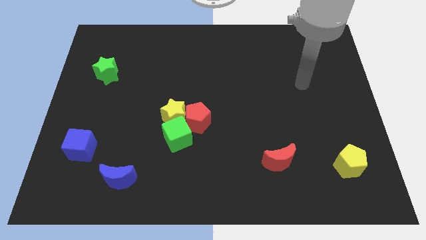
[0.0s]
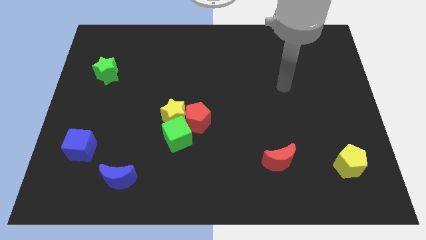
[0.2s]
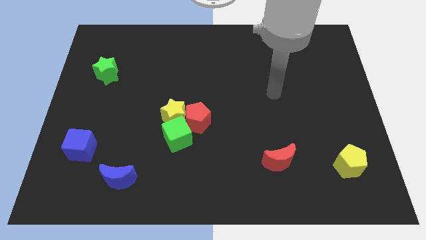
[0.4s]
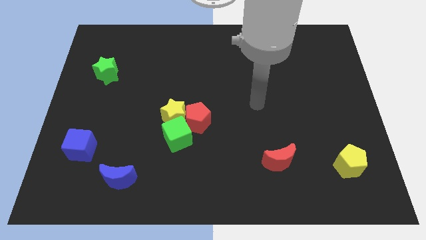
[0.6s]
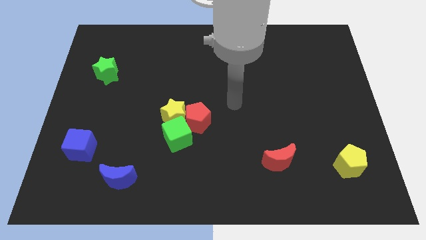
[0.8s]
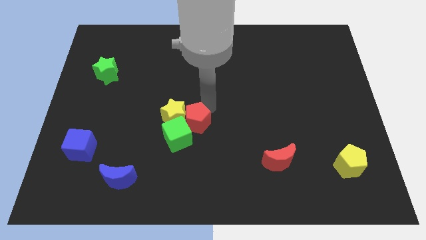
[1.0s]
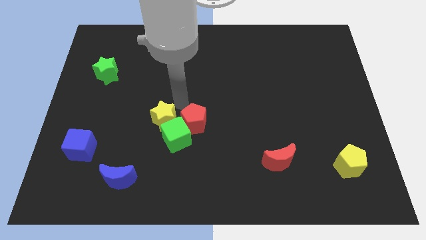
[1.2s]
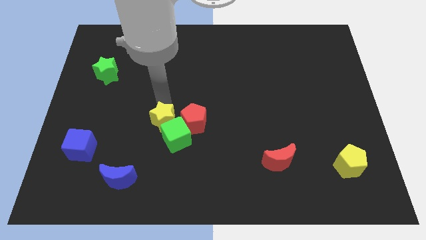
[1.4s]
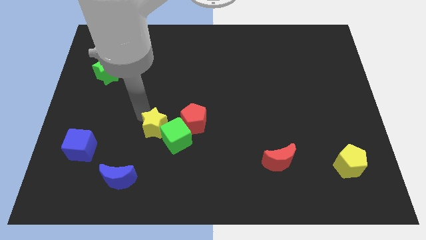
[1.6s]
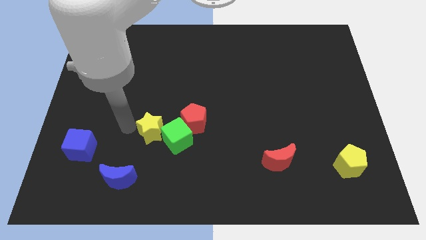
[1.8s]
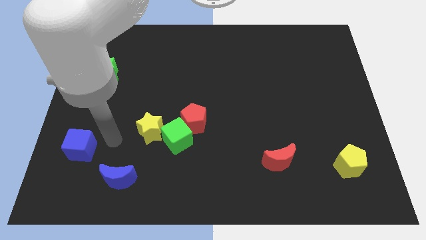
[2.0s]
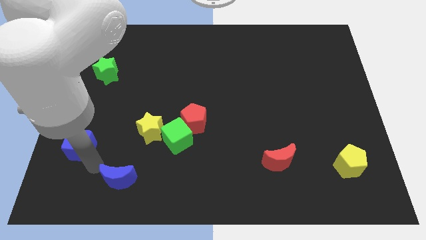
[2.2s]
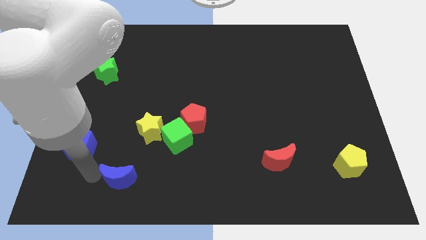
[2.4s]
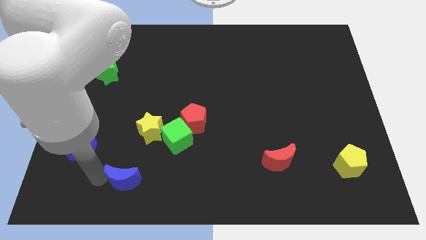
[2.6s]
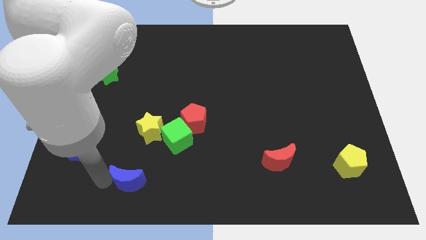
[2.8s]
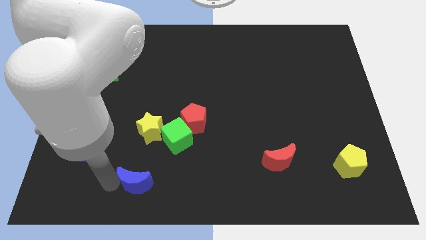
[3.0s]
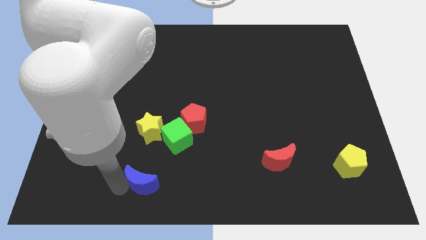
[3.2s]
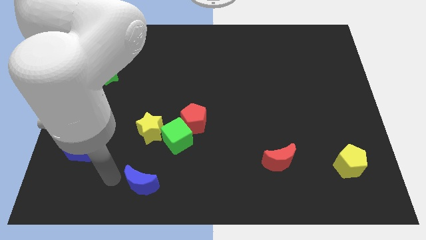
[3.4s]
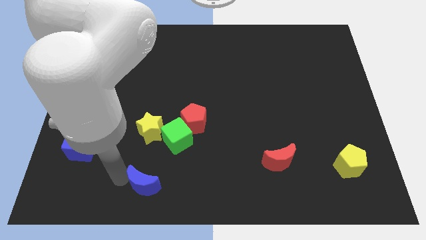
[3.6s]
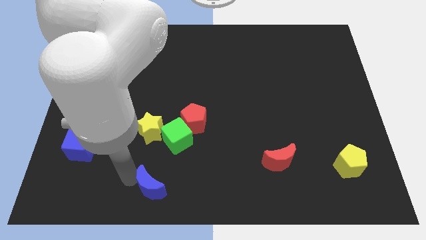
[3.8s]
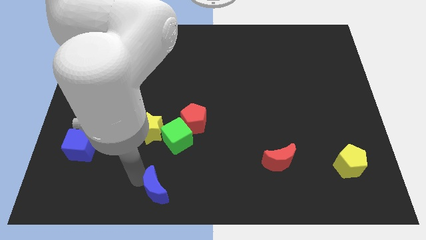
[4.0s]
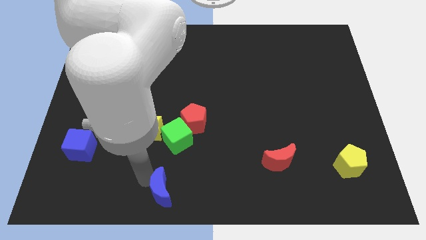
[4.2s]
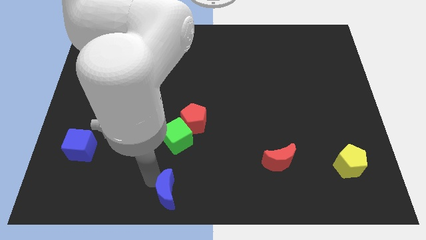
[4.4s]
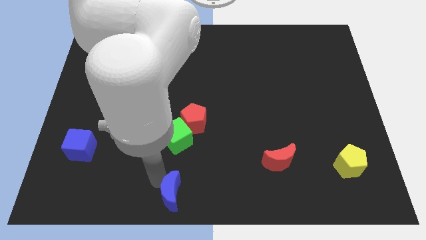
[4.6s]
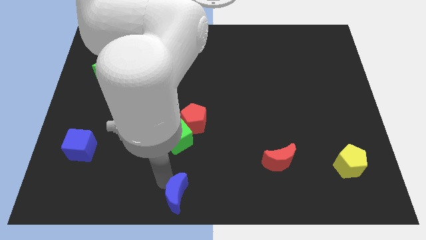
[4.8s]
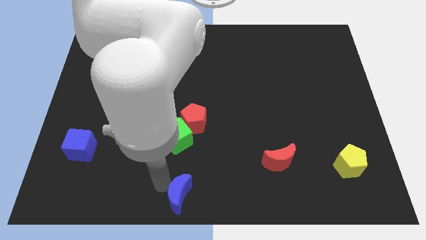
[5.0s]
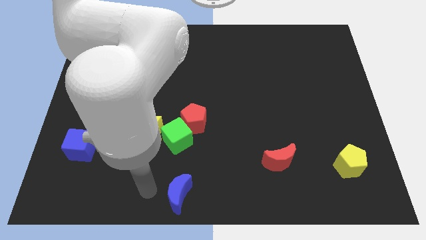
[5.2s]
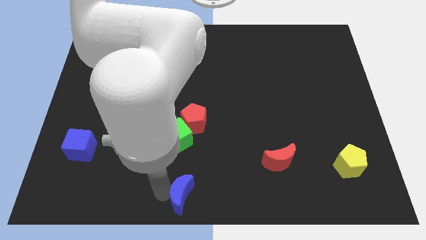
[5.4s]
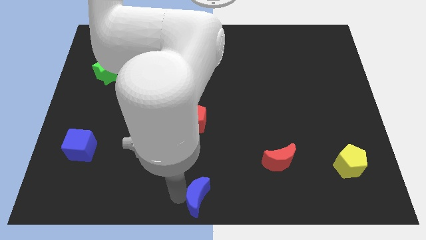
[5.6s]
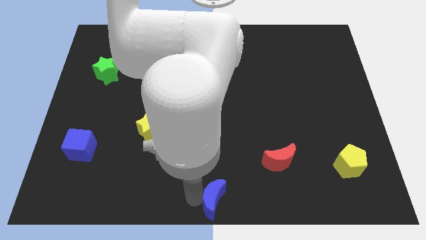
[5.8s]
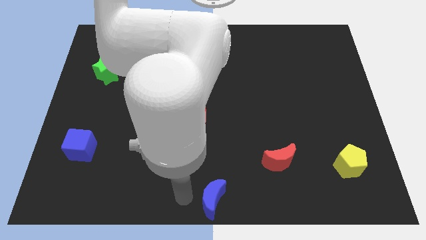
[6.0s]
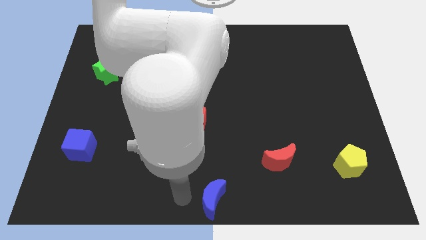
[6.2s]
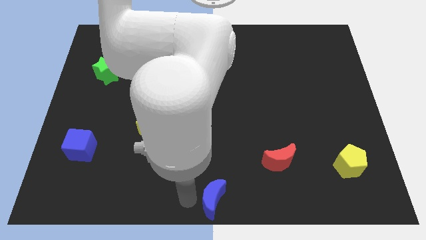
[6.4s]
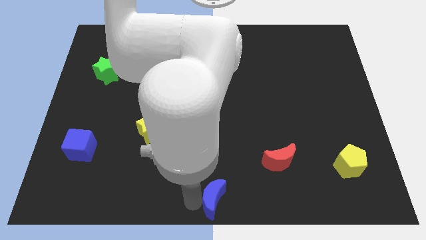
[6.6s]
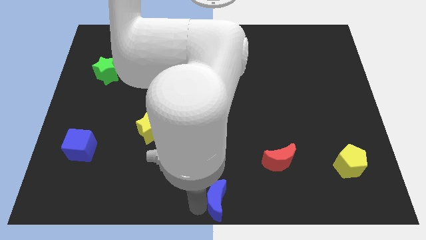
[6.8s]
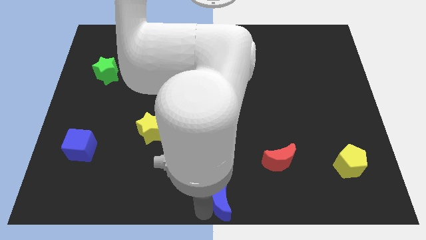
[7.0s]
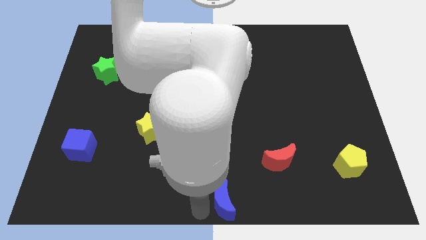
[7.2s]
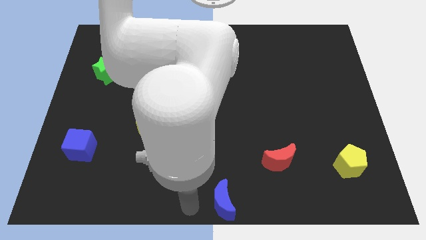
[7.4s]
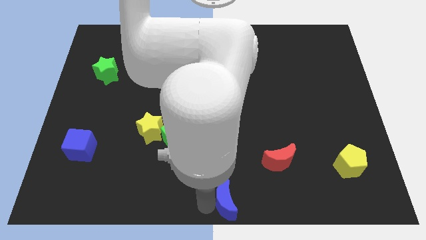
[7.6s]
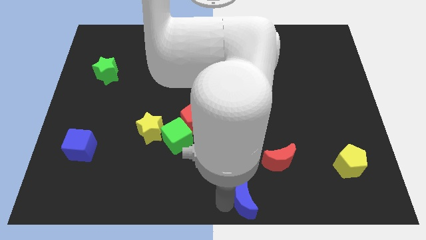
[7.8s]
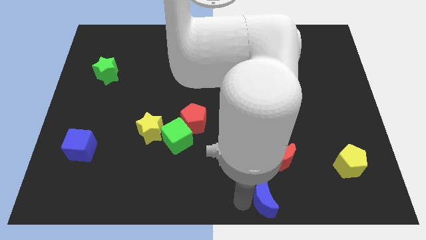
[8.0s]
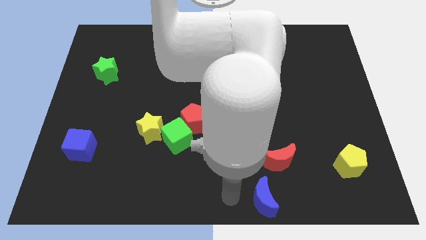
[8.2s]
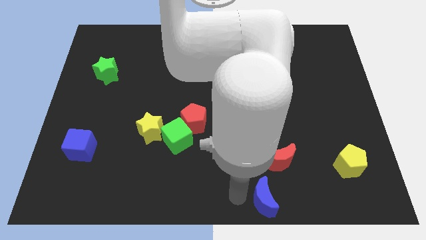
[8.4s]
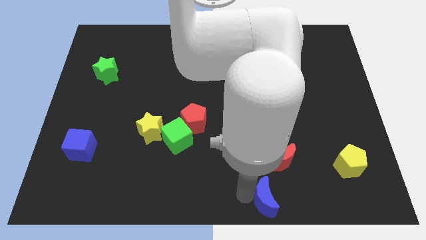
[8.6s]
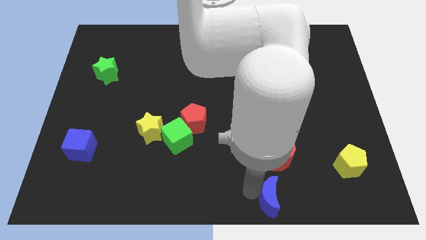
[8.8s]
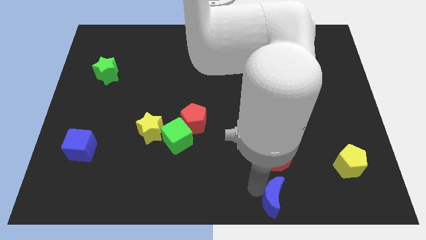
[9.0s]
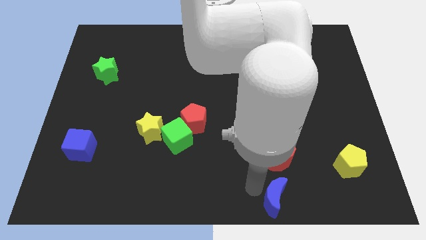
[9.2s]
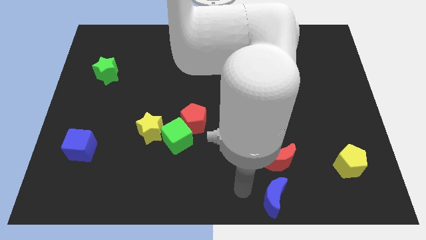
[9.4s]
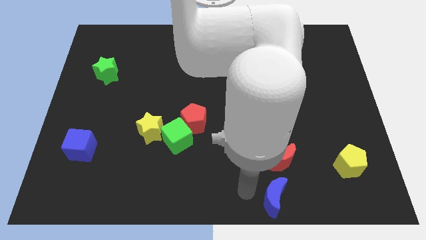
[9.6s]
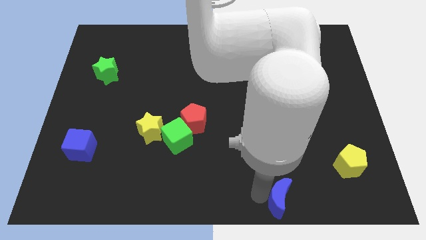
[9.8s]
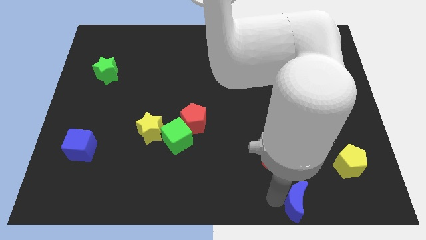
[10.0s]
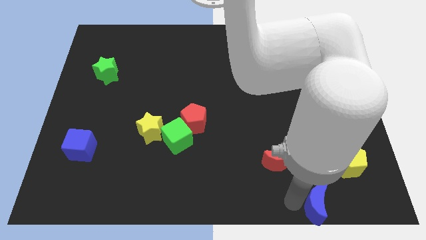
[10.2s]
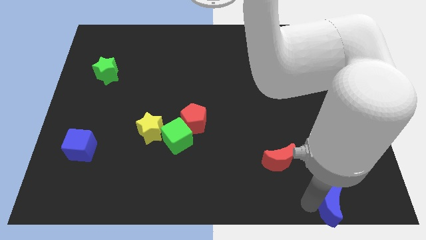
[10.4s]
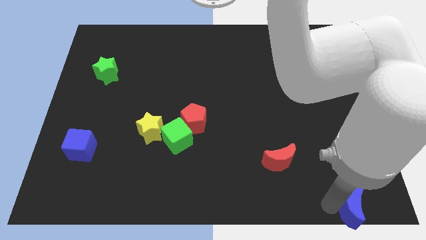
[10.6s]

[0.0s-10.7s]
slide the blue moon to the bottom right

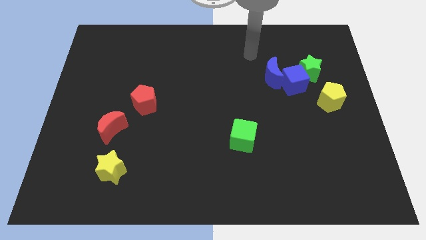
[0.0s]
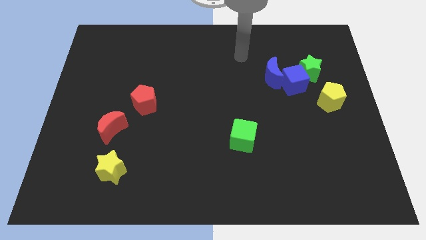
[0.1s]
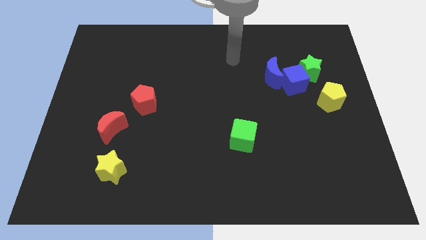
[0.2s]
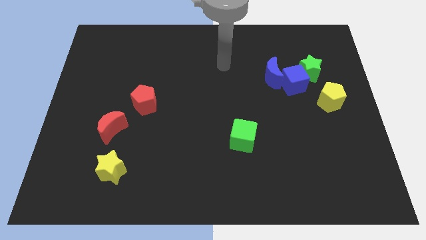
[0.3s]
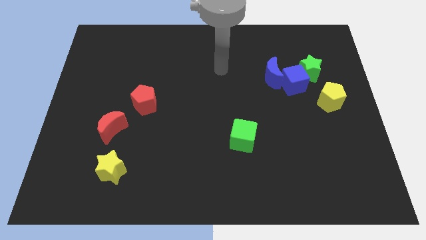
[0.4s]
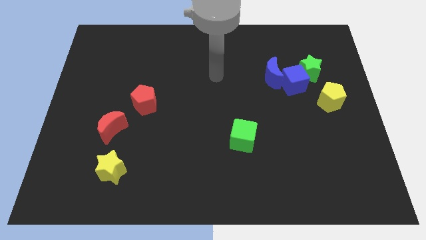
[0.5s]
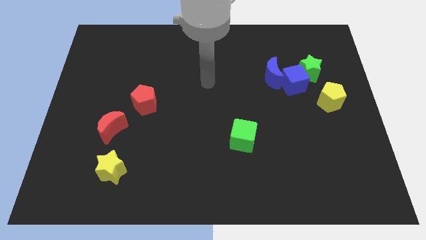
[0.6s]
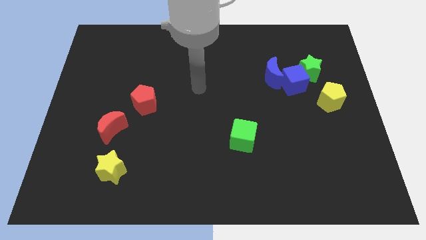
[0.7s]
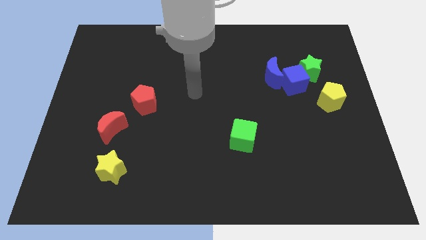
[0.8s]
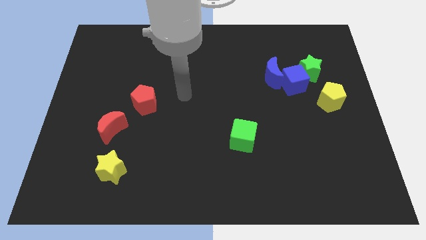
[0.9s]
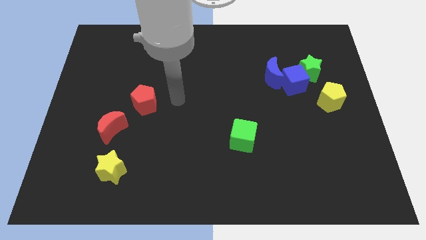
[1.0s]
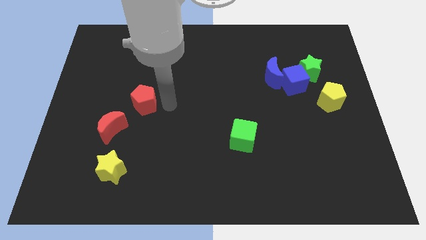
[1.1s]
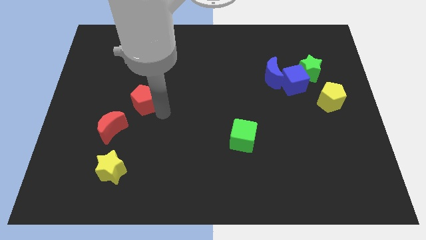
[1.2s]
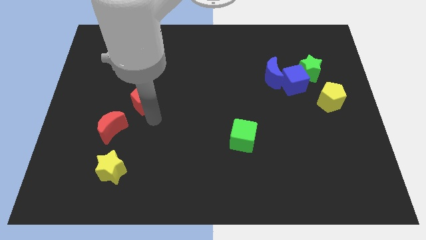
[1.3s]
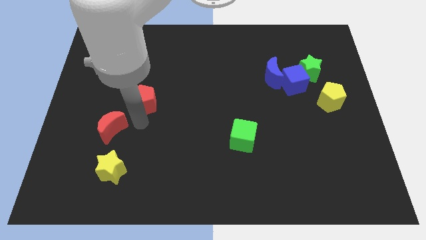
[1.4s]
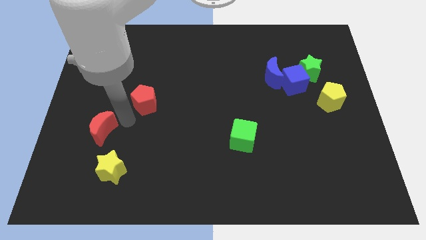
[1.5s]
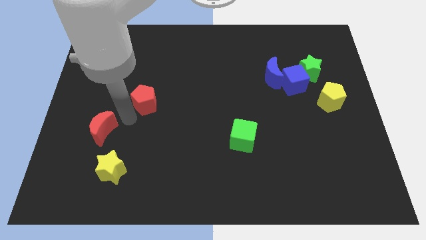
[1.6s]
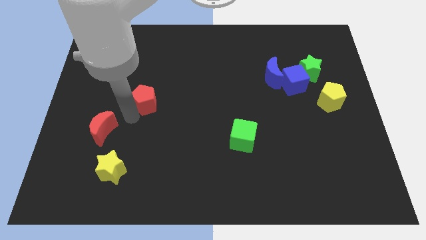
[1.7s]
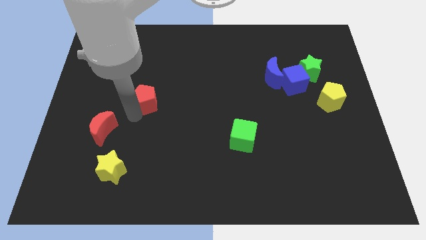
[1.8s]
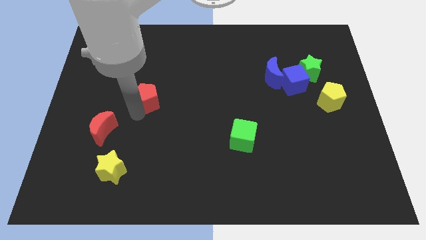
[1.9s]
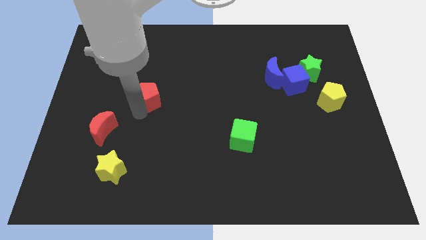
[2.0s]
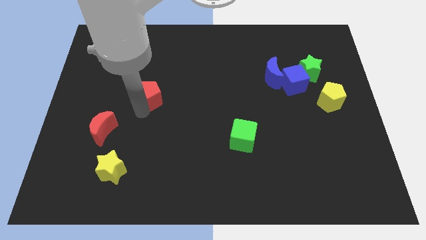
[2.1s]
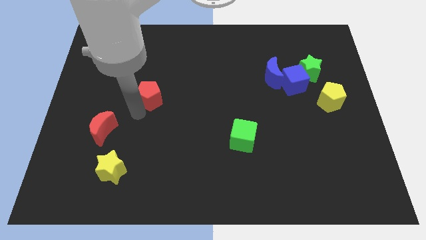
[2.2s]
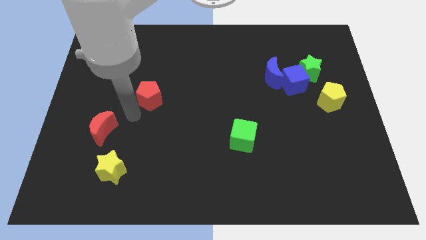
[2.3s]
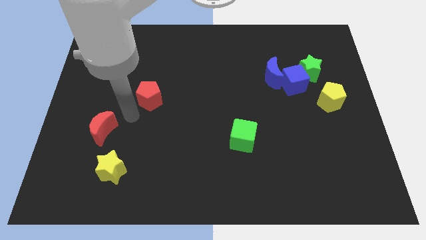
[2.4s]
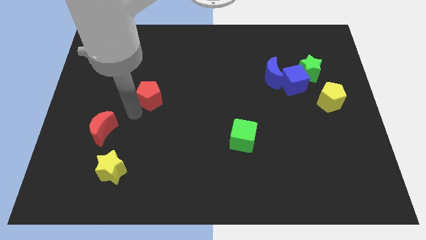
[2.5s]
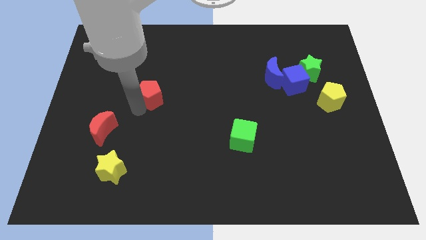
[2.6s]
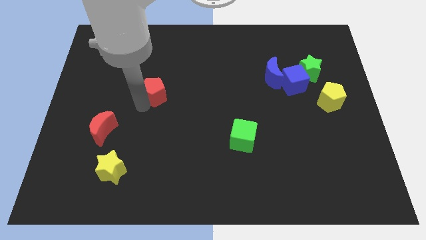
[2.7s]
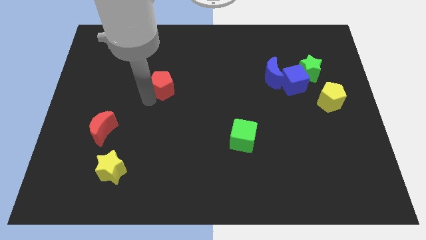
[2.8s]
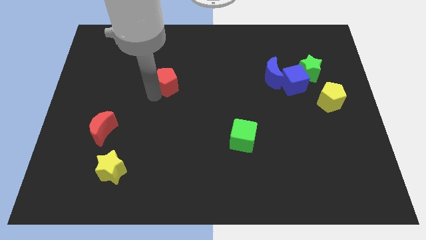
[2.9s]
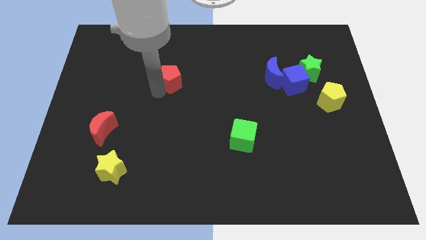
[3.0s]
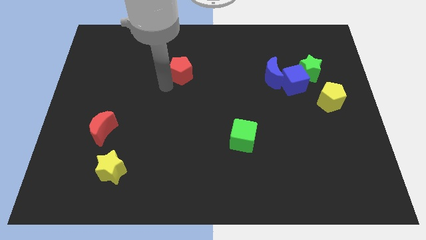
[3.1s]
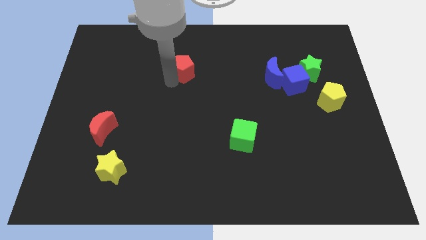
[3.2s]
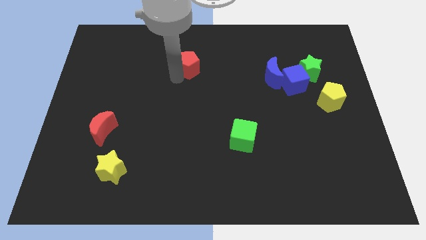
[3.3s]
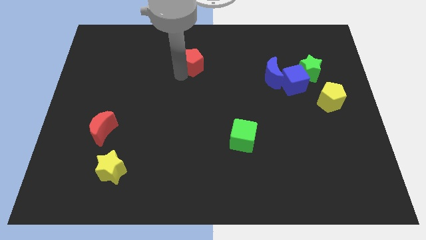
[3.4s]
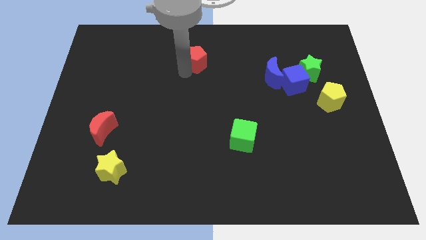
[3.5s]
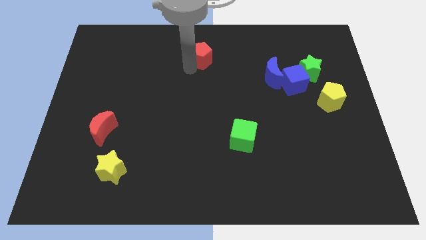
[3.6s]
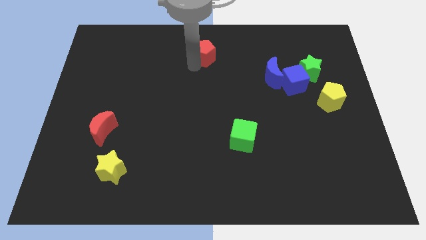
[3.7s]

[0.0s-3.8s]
put the red pentagon to the top

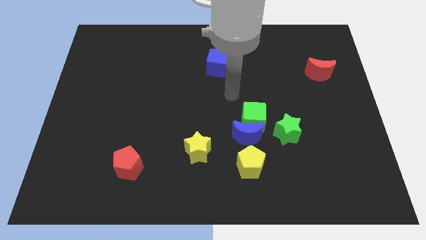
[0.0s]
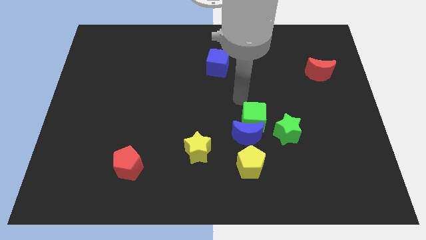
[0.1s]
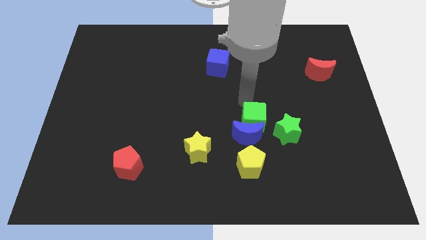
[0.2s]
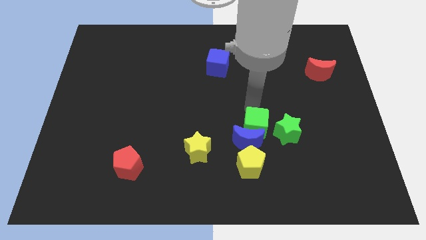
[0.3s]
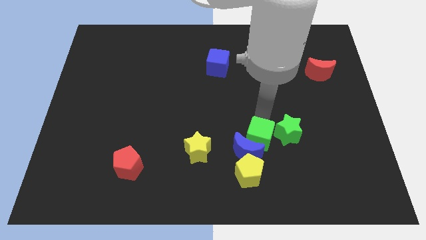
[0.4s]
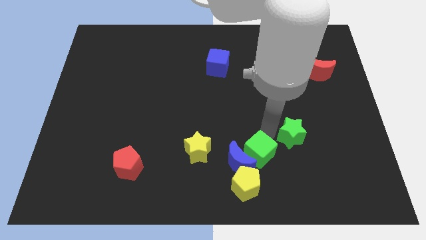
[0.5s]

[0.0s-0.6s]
put the blue moon to the bottom
